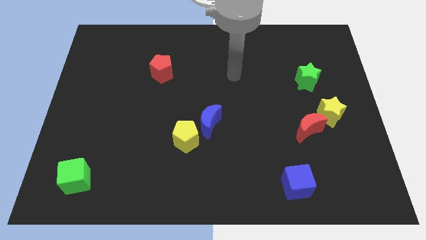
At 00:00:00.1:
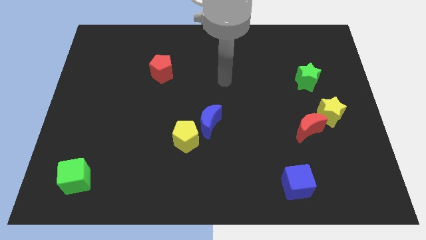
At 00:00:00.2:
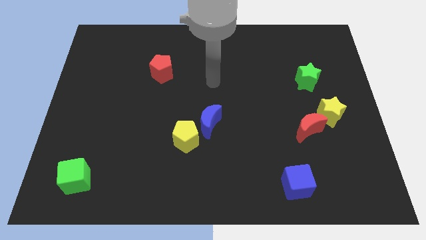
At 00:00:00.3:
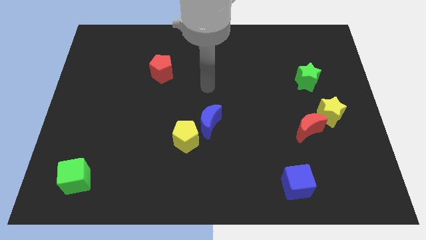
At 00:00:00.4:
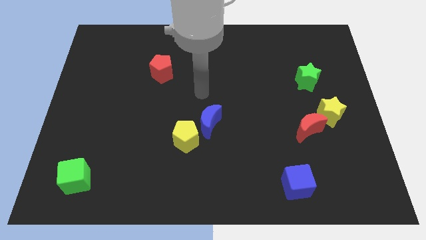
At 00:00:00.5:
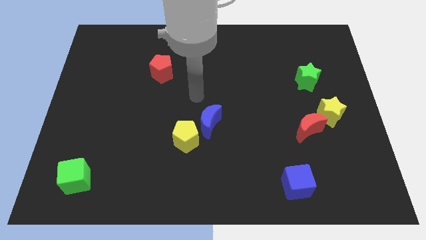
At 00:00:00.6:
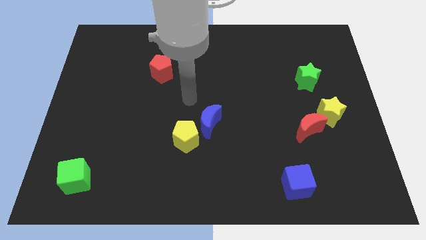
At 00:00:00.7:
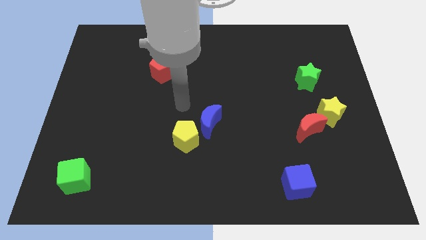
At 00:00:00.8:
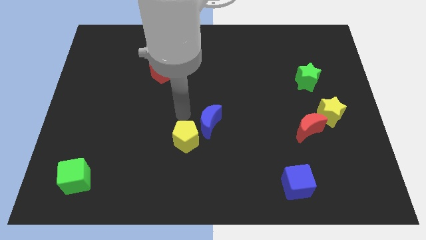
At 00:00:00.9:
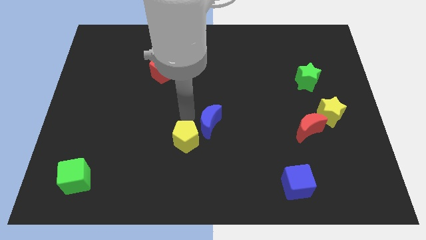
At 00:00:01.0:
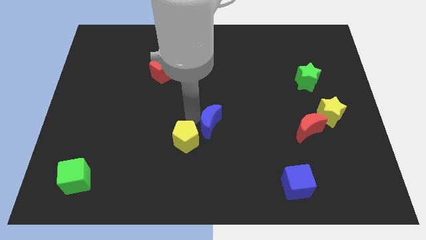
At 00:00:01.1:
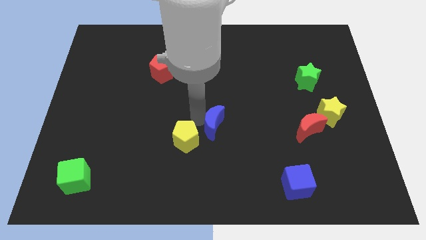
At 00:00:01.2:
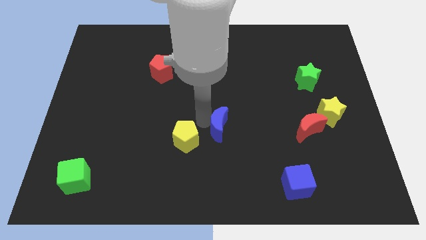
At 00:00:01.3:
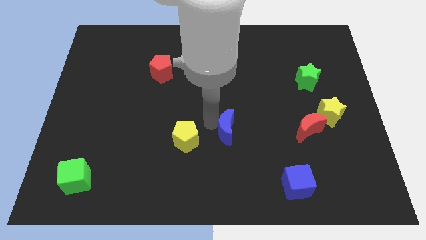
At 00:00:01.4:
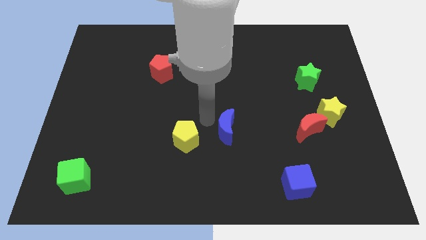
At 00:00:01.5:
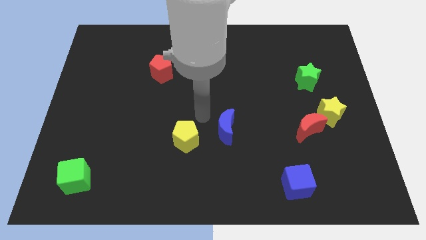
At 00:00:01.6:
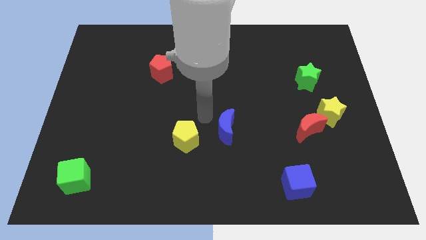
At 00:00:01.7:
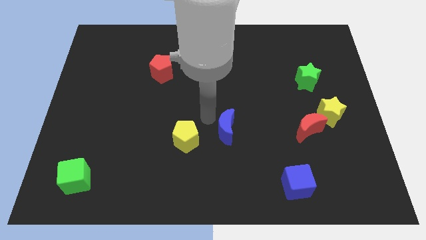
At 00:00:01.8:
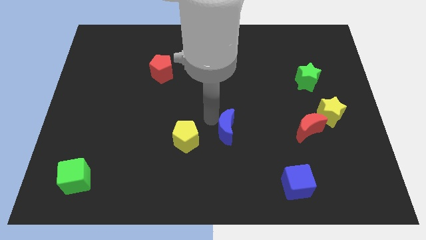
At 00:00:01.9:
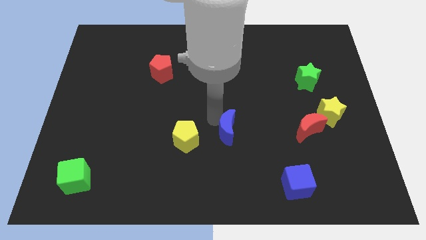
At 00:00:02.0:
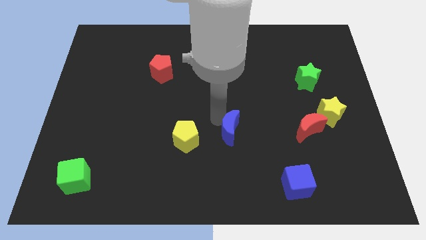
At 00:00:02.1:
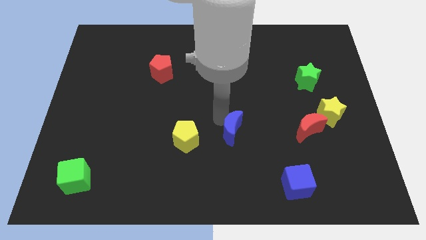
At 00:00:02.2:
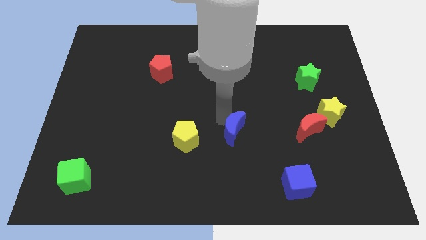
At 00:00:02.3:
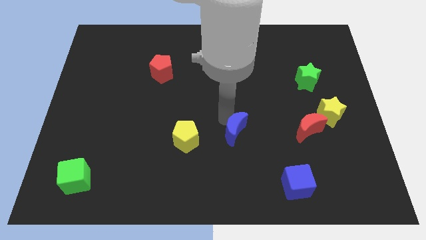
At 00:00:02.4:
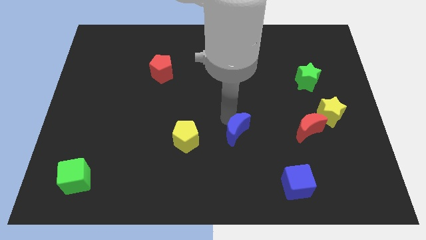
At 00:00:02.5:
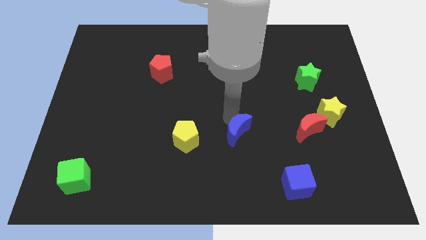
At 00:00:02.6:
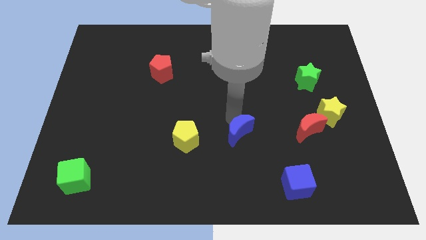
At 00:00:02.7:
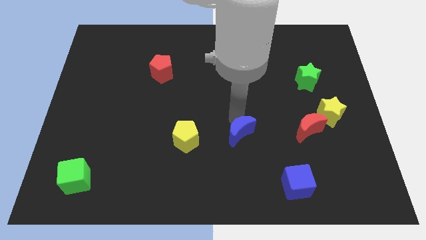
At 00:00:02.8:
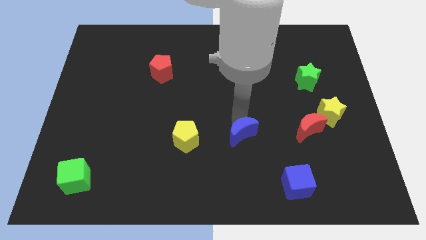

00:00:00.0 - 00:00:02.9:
slightly slide the blue moon downwards and then right

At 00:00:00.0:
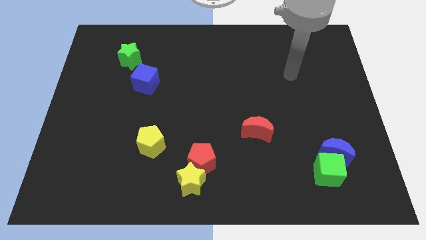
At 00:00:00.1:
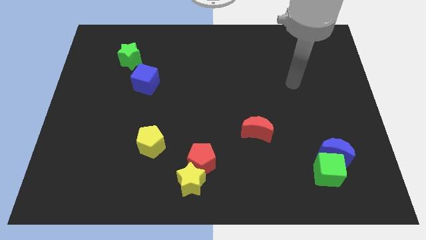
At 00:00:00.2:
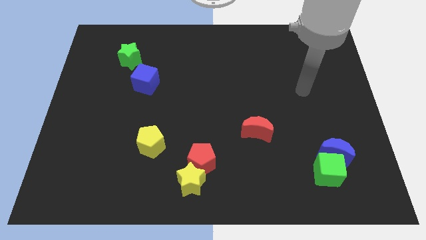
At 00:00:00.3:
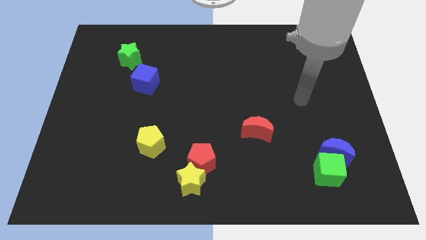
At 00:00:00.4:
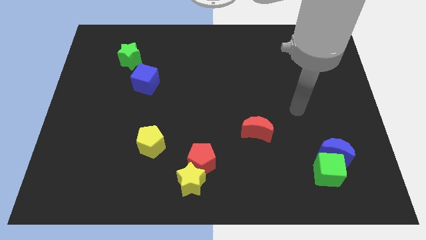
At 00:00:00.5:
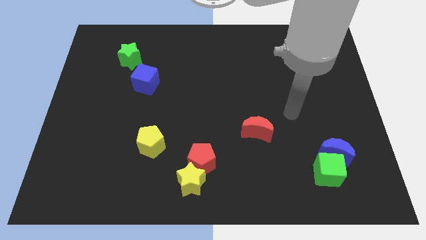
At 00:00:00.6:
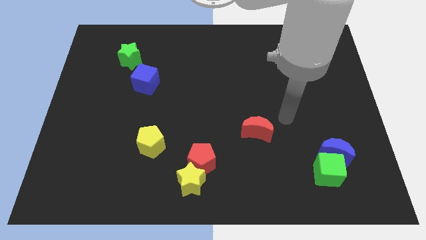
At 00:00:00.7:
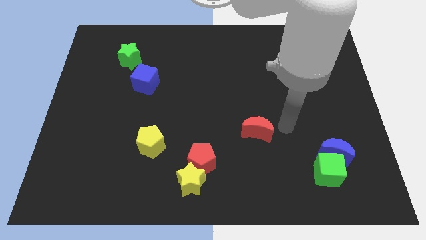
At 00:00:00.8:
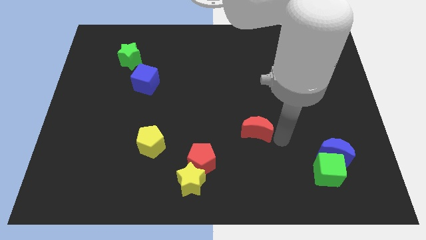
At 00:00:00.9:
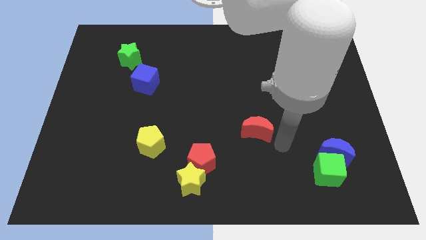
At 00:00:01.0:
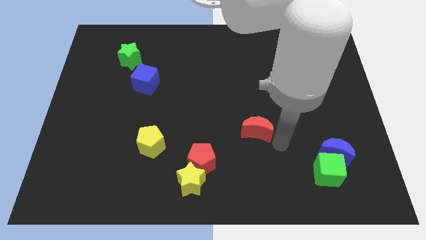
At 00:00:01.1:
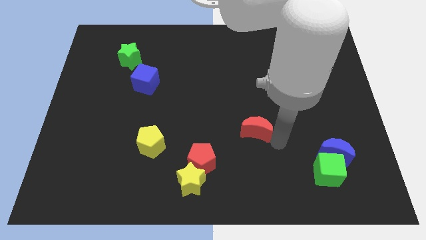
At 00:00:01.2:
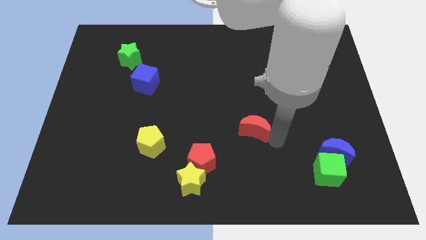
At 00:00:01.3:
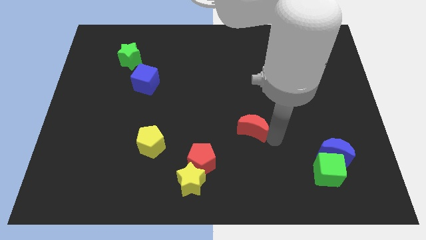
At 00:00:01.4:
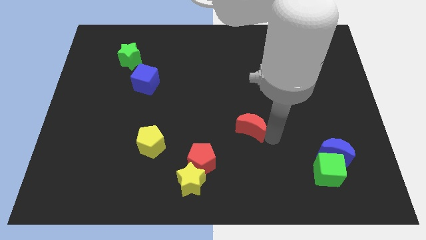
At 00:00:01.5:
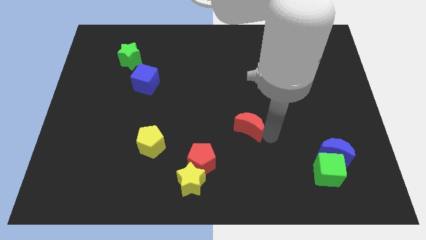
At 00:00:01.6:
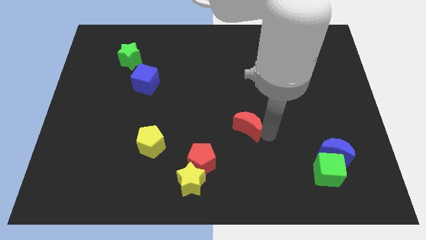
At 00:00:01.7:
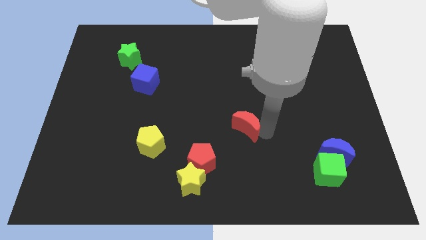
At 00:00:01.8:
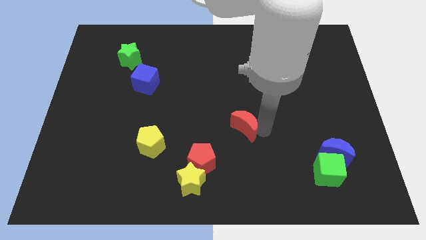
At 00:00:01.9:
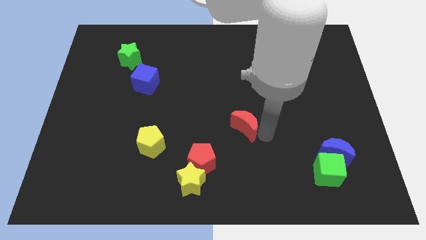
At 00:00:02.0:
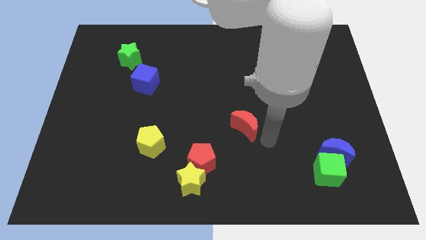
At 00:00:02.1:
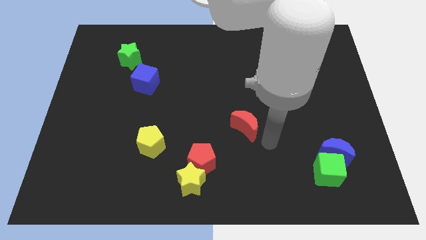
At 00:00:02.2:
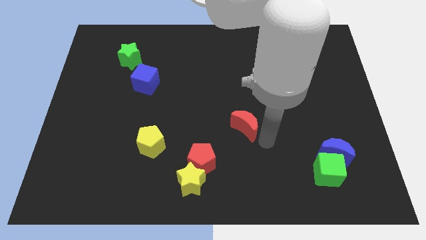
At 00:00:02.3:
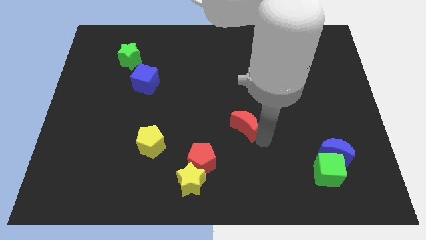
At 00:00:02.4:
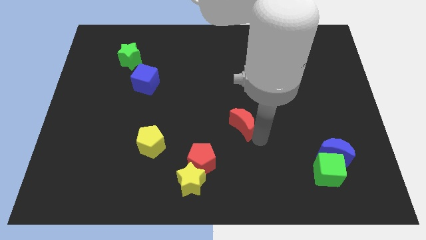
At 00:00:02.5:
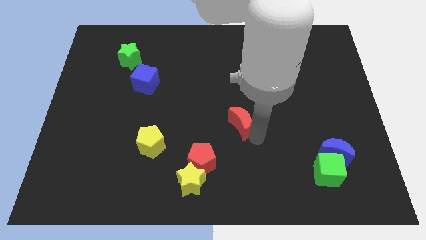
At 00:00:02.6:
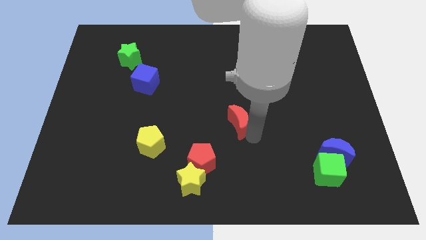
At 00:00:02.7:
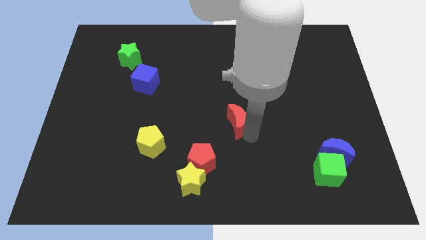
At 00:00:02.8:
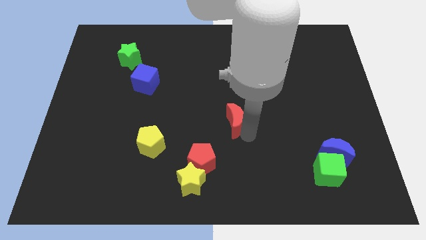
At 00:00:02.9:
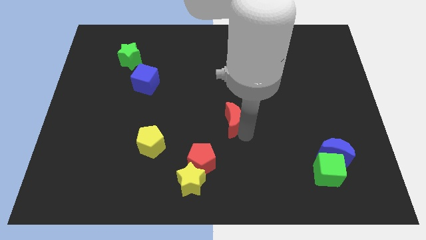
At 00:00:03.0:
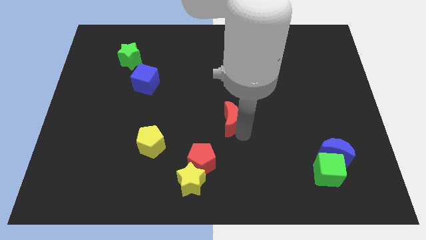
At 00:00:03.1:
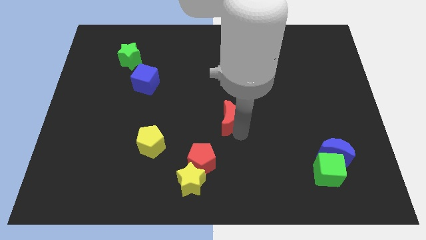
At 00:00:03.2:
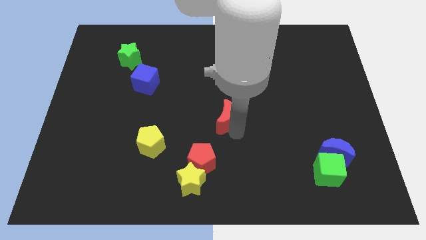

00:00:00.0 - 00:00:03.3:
push the red moon diagonally up and left a little

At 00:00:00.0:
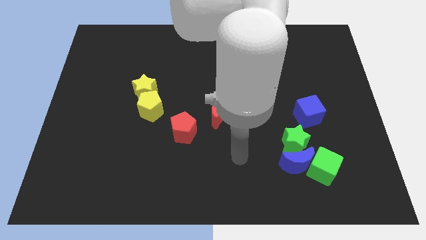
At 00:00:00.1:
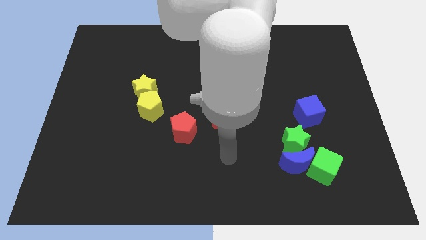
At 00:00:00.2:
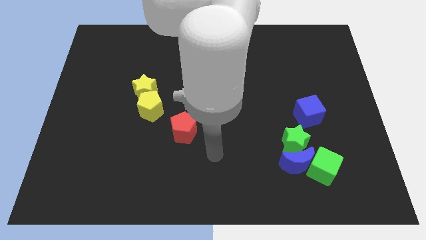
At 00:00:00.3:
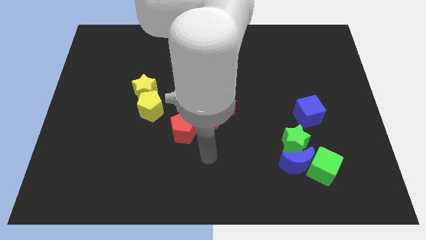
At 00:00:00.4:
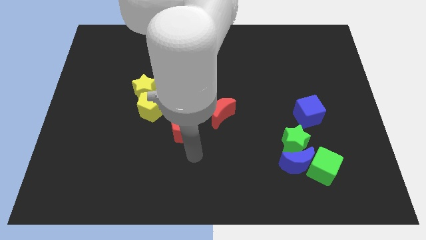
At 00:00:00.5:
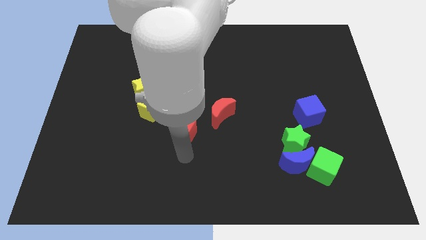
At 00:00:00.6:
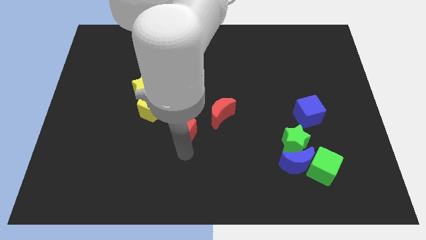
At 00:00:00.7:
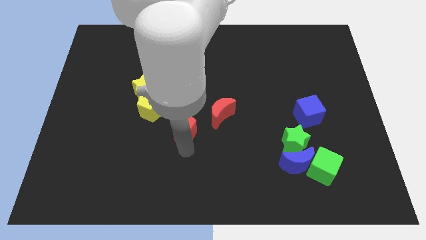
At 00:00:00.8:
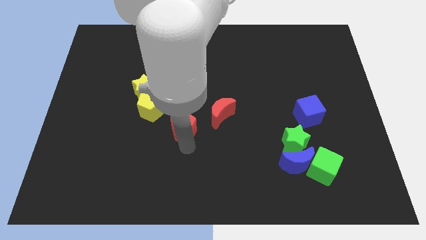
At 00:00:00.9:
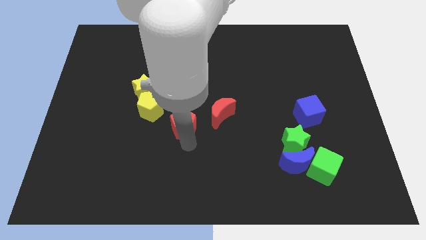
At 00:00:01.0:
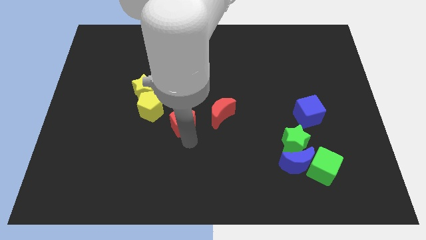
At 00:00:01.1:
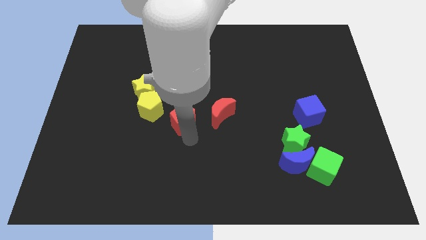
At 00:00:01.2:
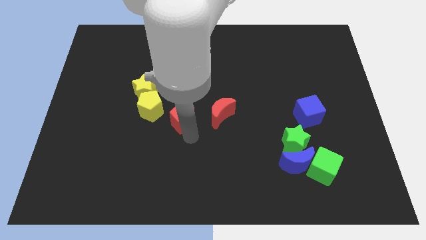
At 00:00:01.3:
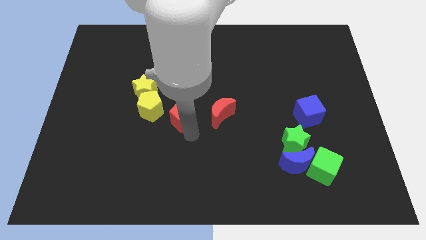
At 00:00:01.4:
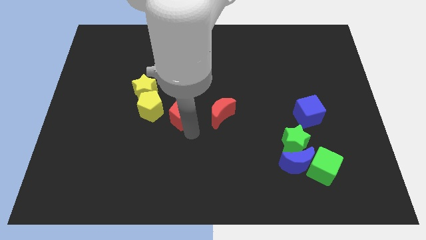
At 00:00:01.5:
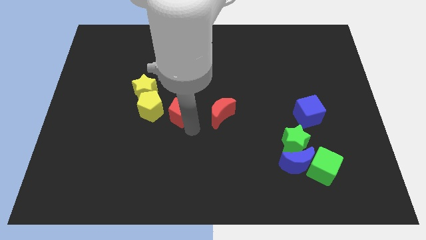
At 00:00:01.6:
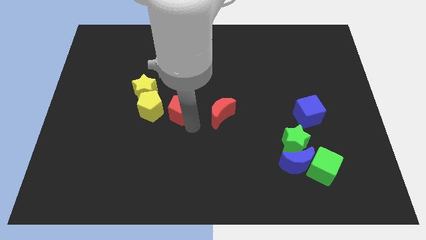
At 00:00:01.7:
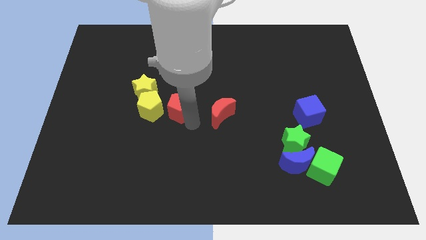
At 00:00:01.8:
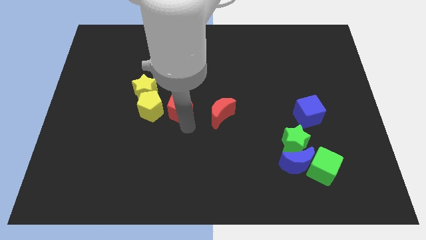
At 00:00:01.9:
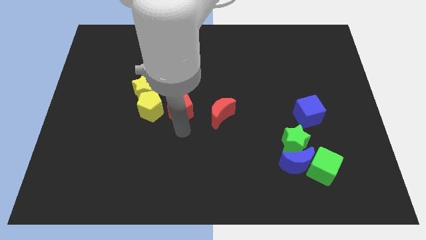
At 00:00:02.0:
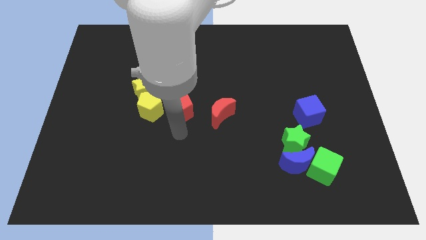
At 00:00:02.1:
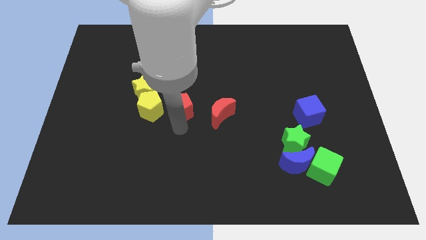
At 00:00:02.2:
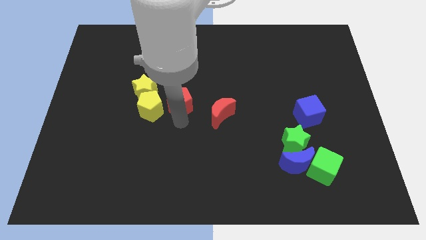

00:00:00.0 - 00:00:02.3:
push the red pentagon somewhat up

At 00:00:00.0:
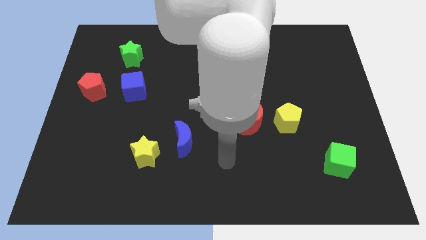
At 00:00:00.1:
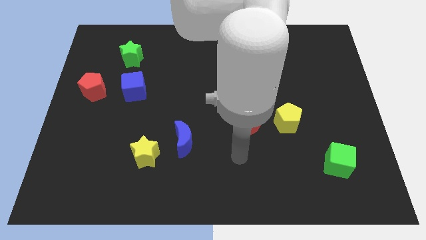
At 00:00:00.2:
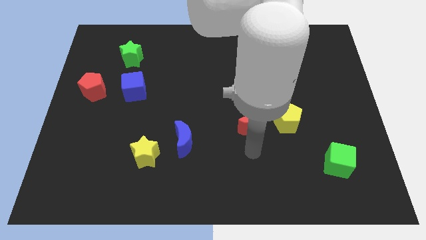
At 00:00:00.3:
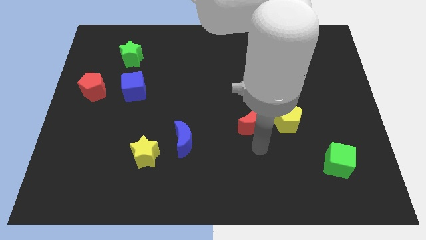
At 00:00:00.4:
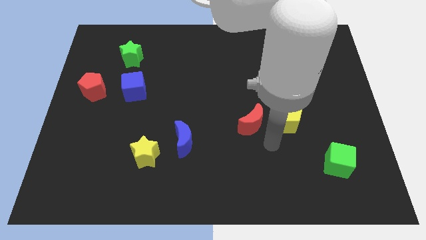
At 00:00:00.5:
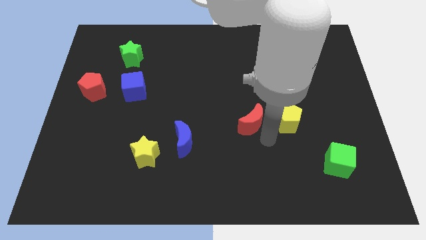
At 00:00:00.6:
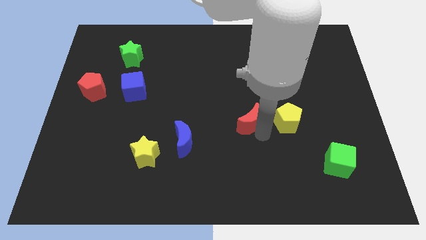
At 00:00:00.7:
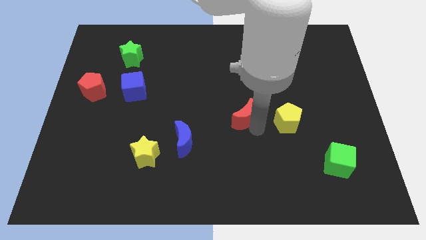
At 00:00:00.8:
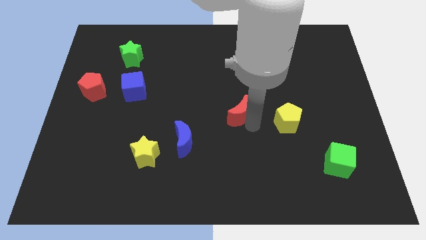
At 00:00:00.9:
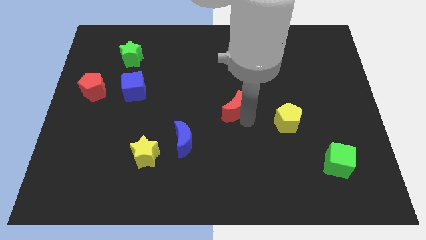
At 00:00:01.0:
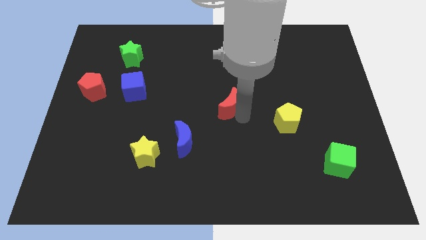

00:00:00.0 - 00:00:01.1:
slightly slide the red moon up and to the left diagonally
